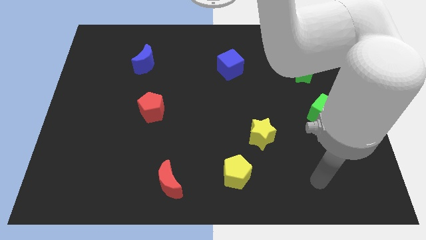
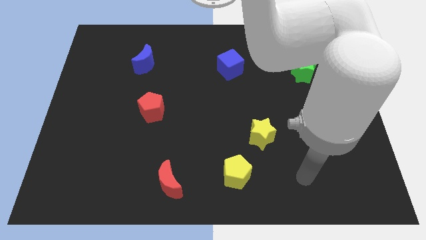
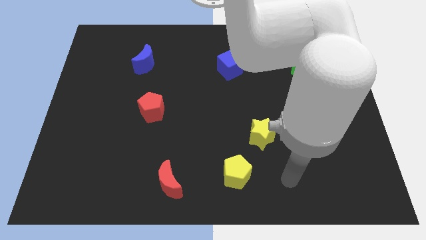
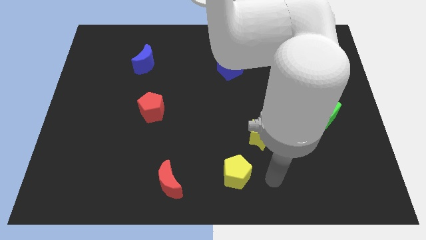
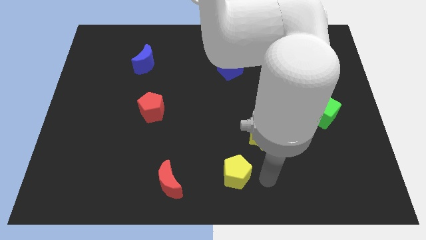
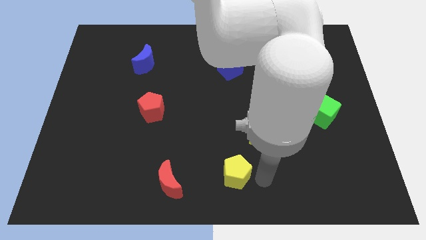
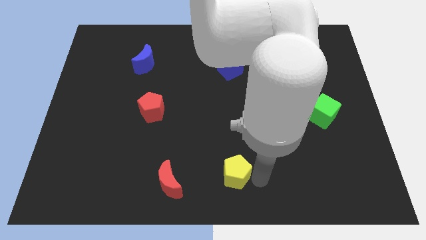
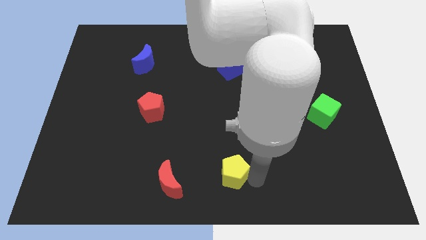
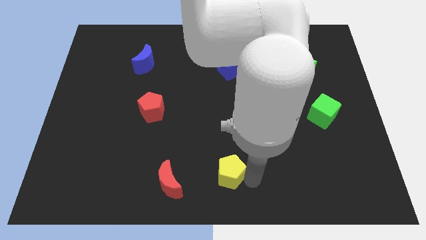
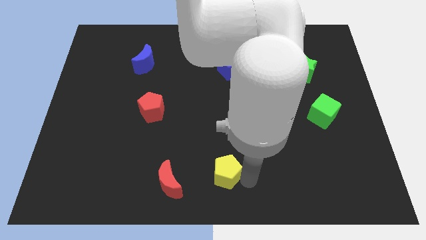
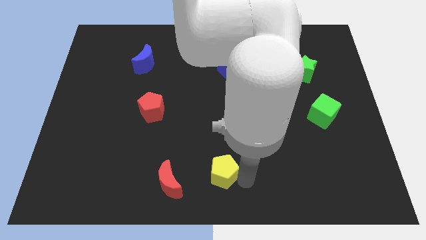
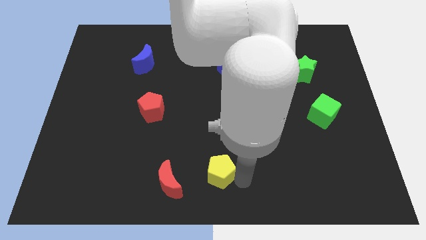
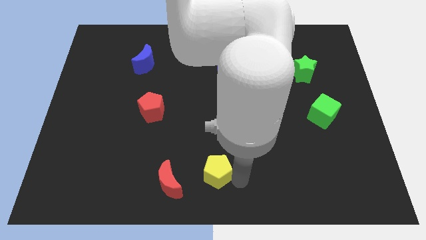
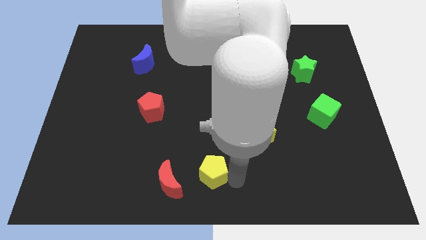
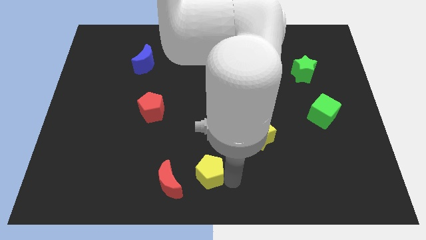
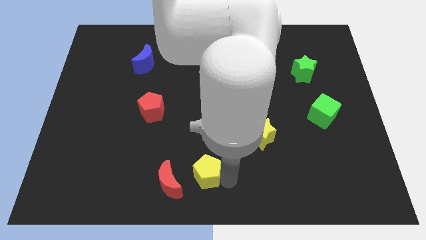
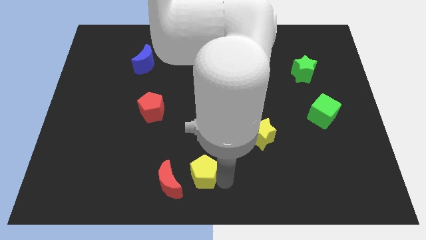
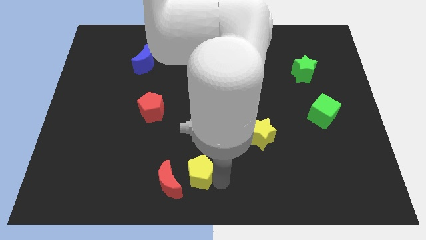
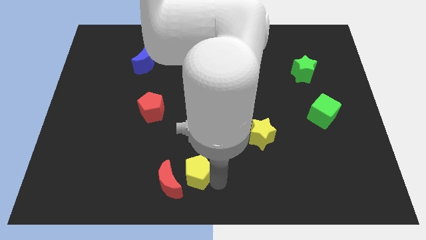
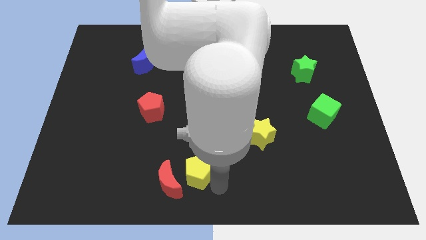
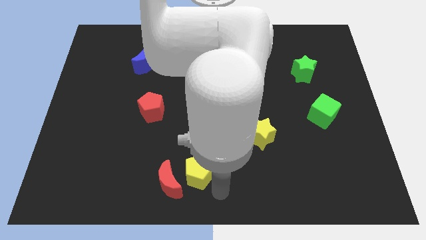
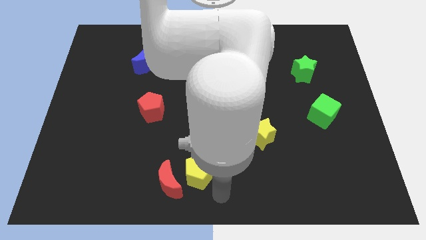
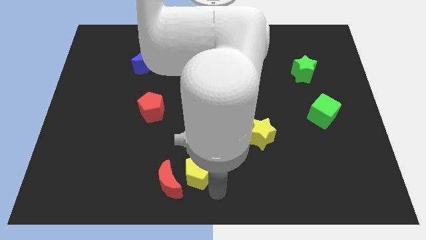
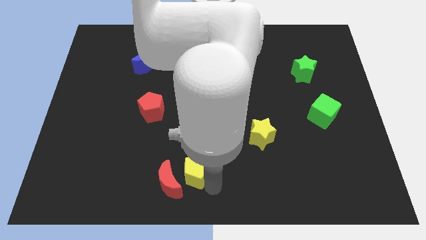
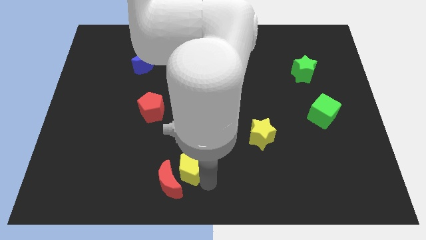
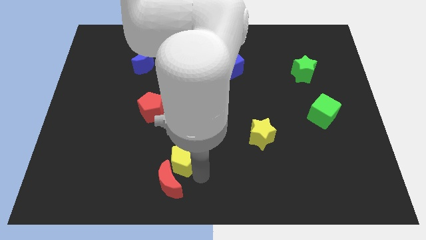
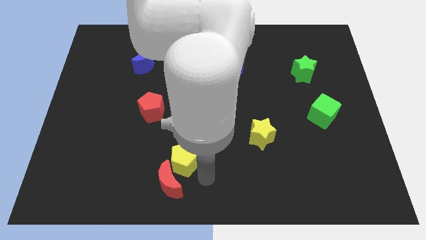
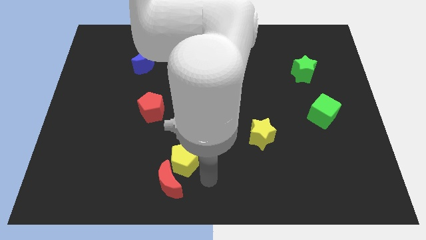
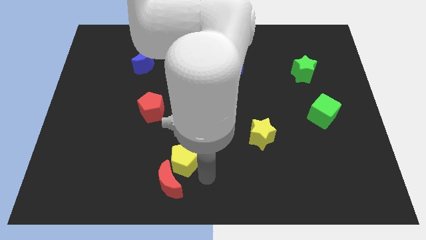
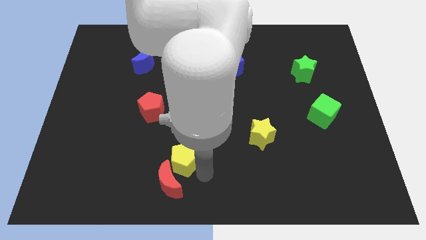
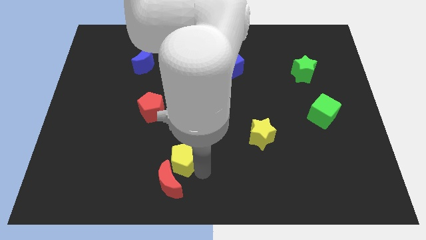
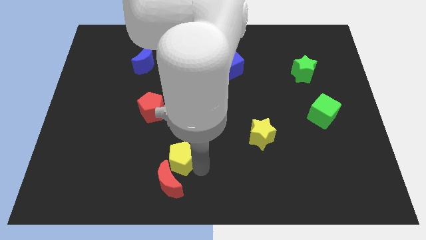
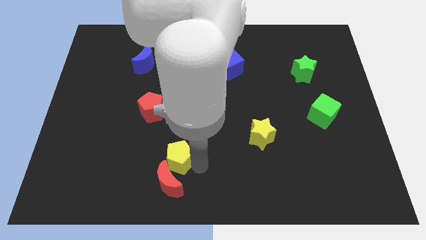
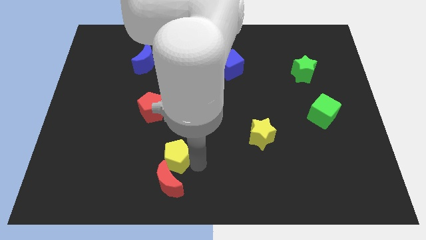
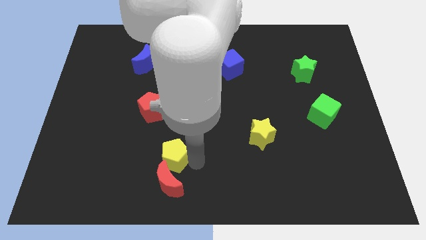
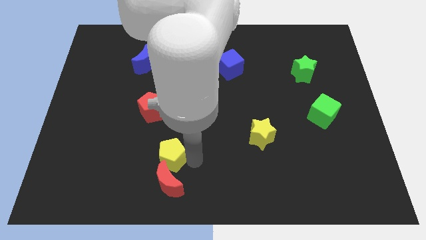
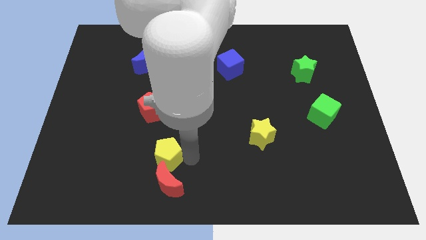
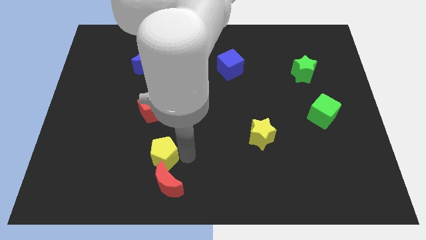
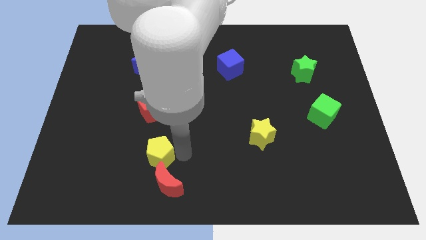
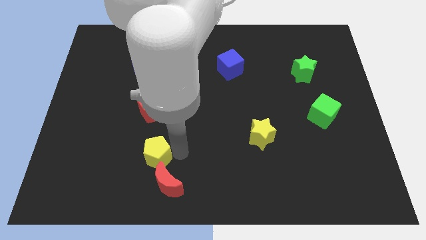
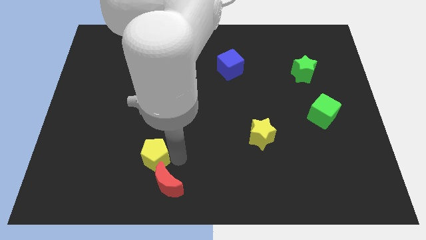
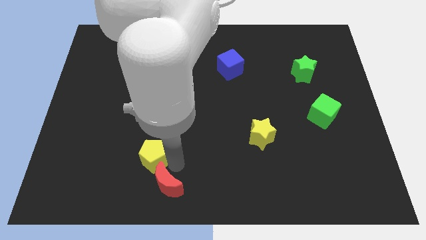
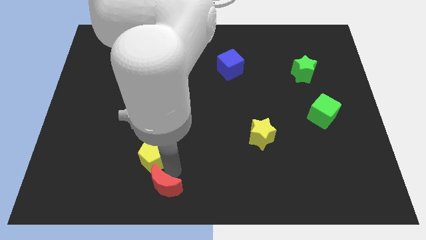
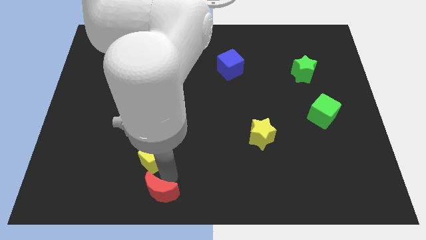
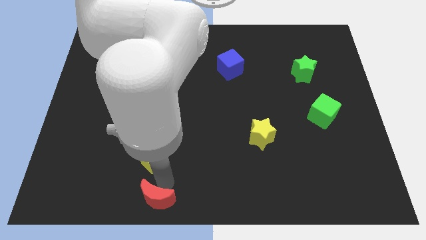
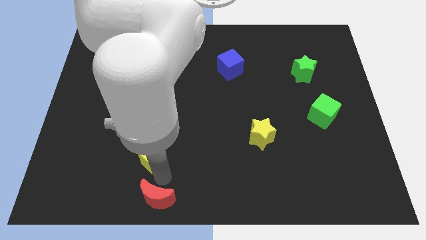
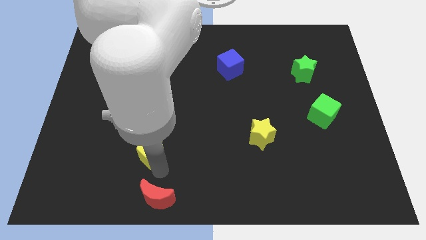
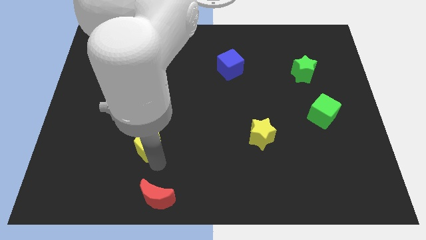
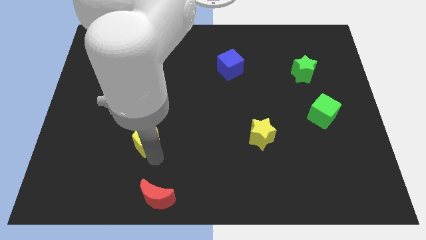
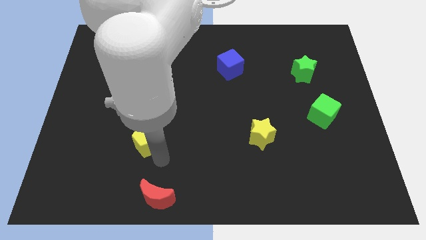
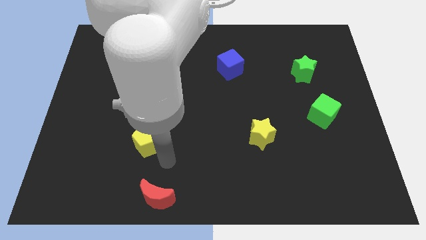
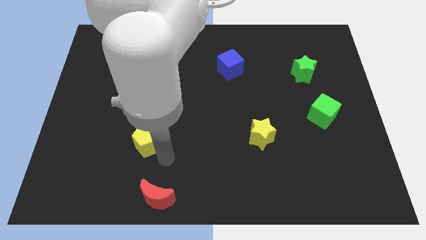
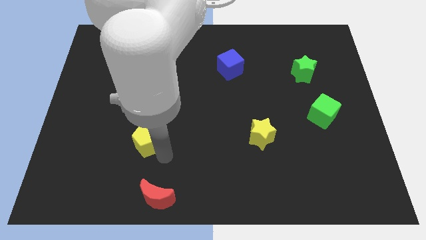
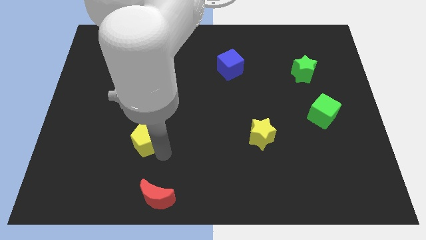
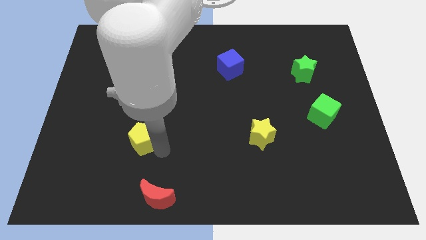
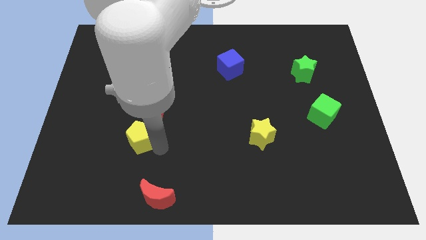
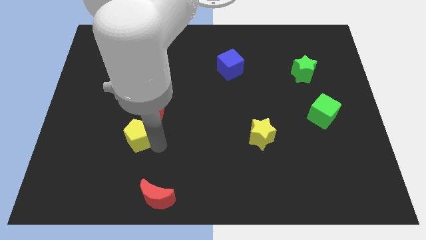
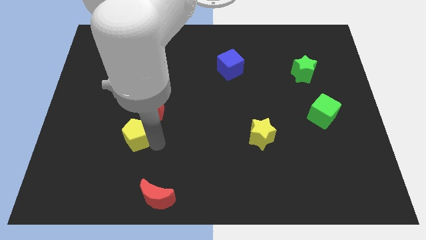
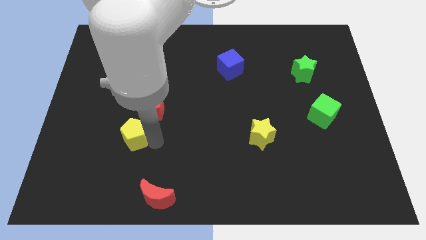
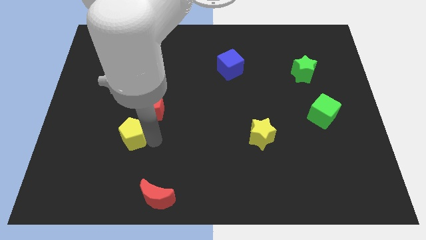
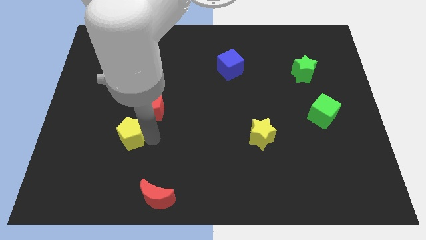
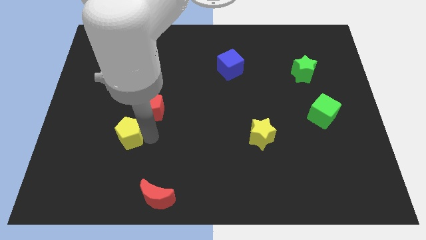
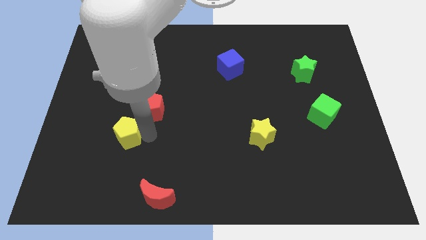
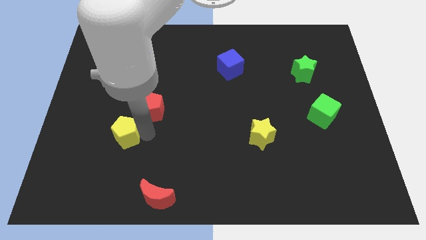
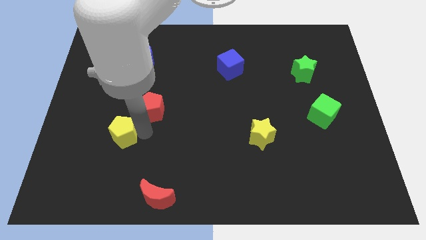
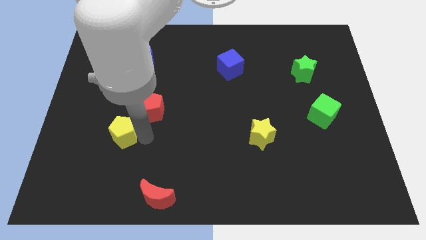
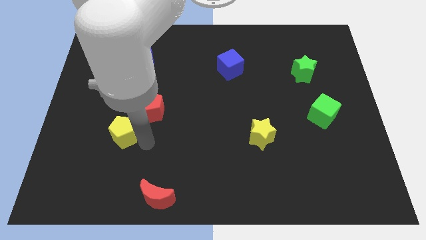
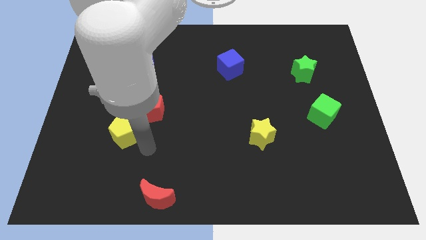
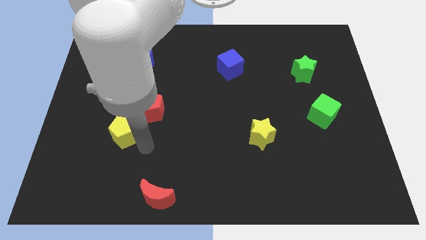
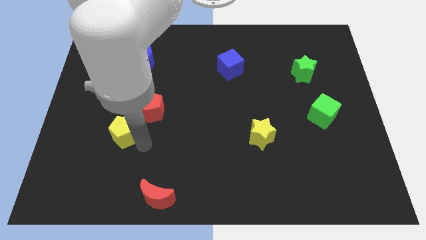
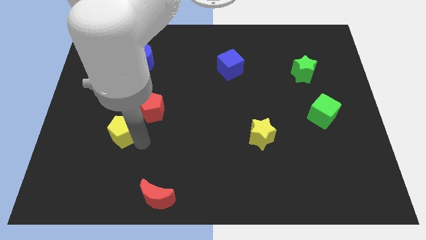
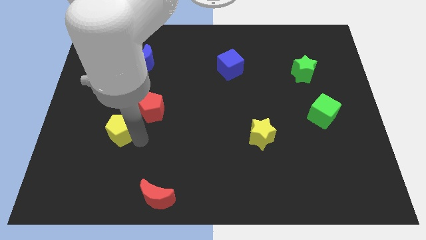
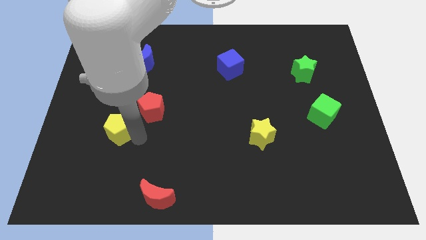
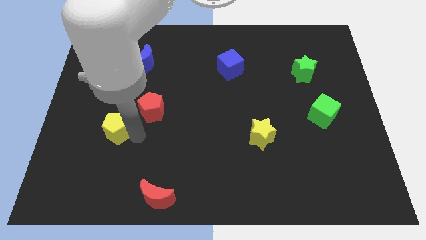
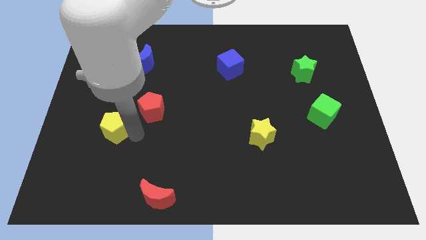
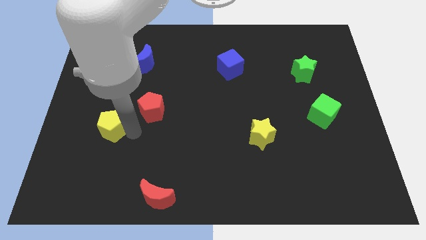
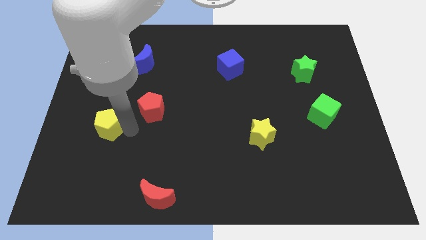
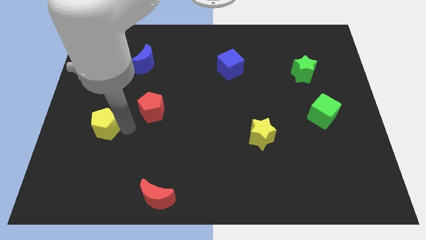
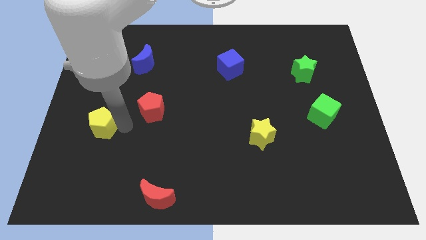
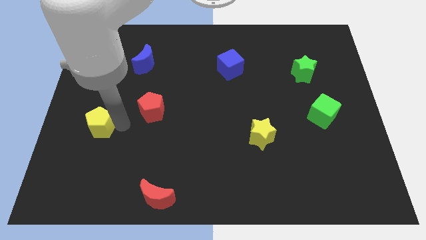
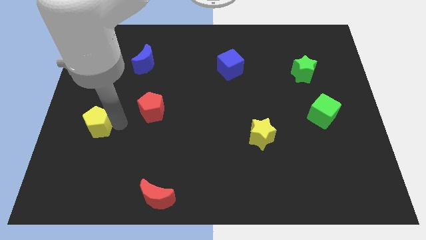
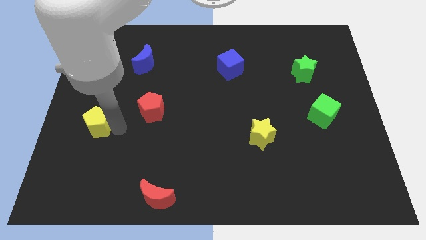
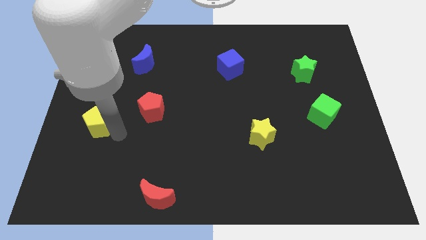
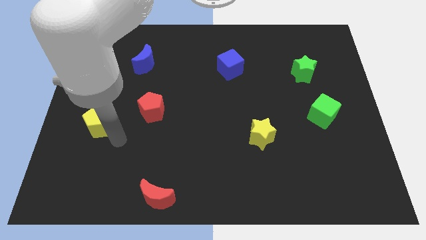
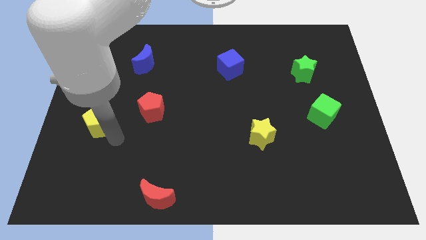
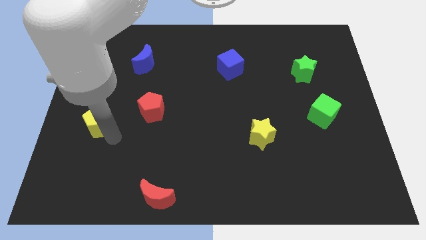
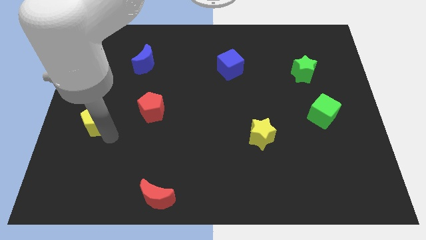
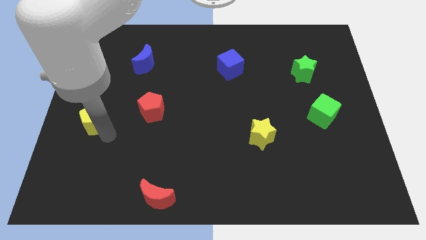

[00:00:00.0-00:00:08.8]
put the yellow pentagon to the left side of the board
